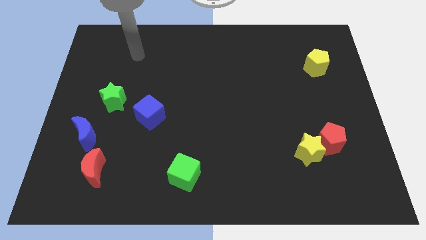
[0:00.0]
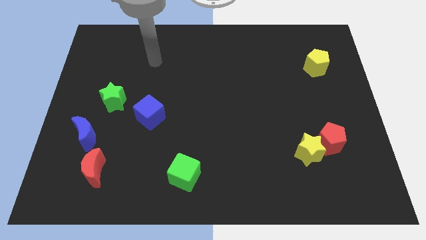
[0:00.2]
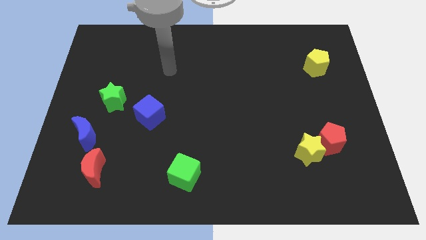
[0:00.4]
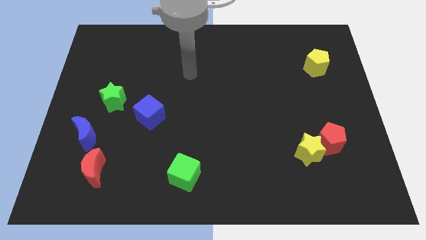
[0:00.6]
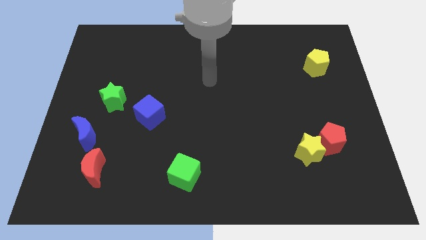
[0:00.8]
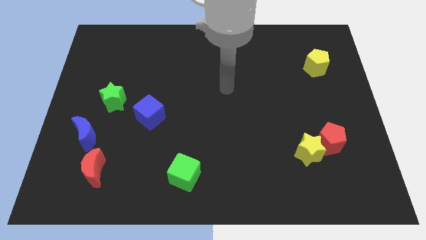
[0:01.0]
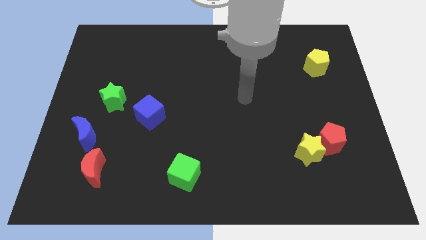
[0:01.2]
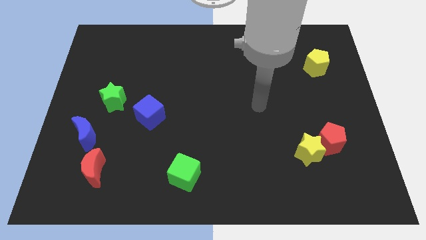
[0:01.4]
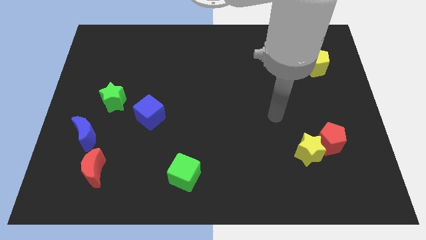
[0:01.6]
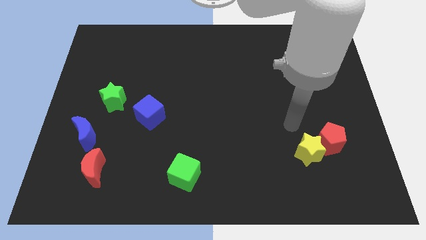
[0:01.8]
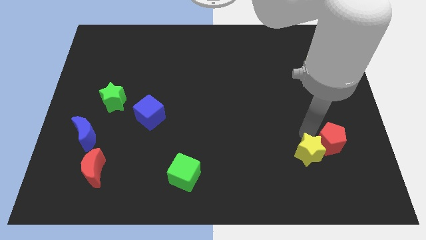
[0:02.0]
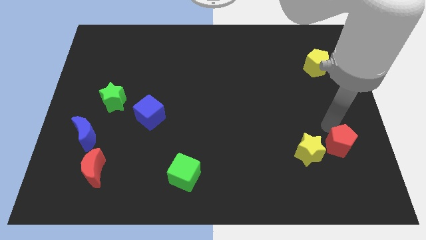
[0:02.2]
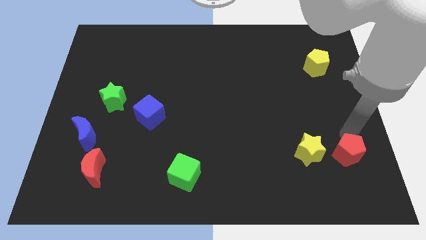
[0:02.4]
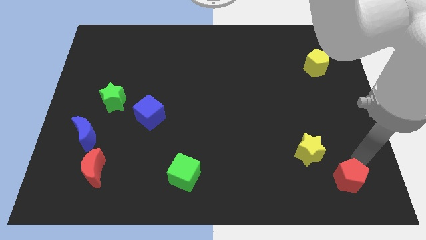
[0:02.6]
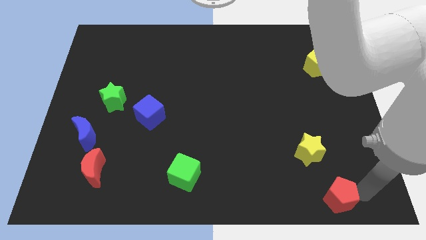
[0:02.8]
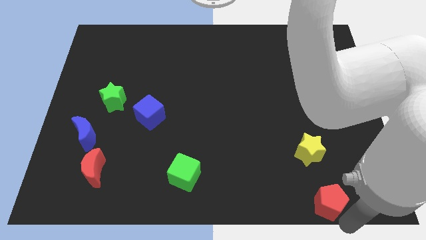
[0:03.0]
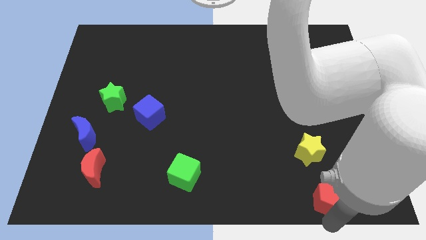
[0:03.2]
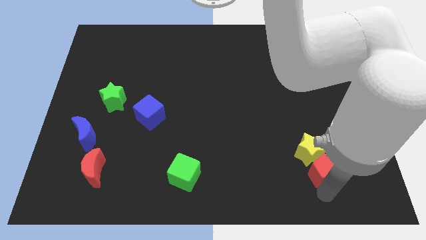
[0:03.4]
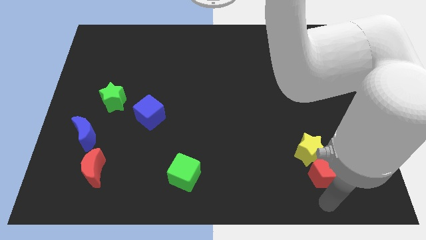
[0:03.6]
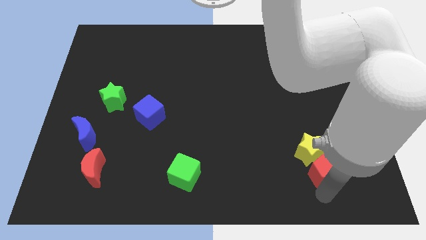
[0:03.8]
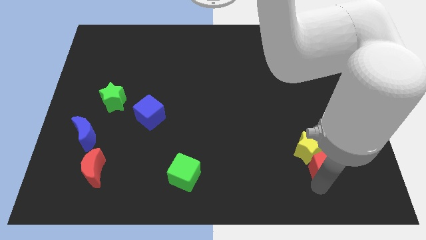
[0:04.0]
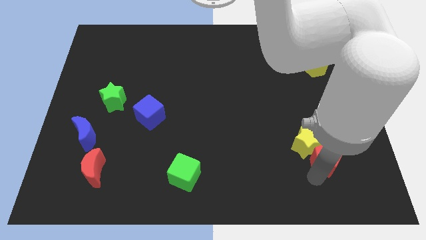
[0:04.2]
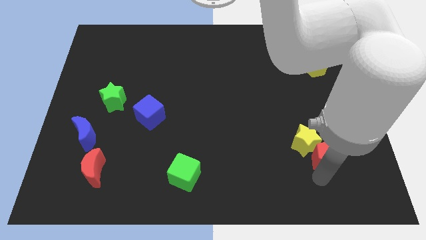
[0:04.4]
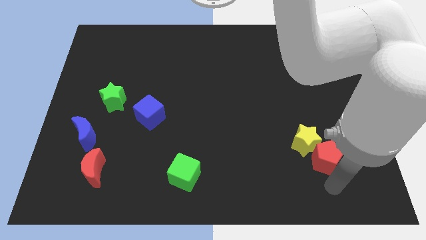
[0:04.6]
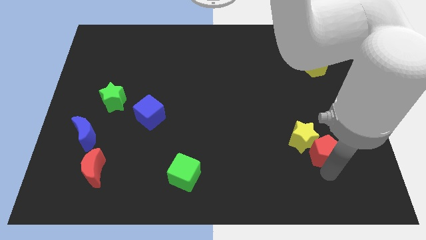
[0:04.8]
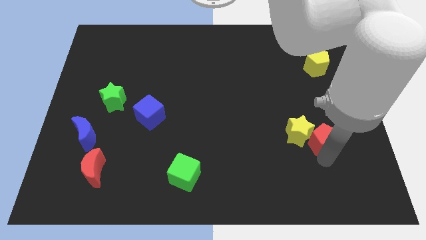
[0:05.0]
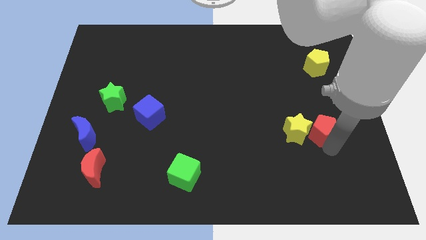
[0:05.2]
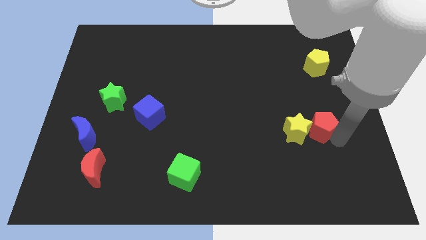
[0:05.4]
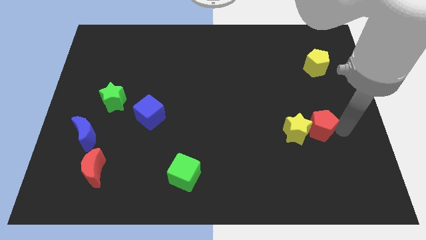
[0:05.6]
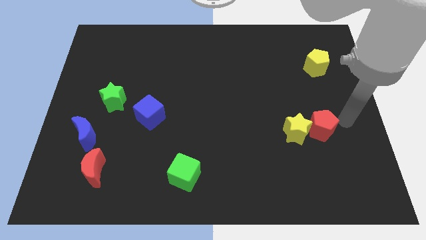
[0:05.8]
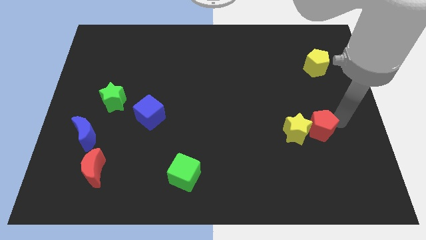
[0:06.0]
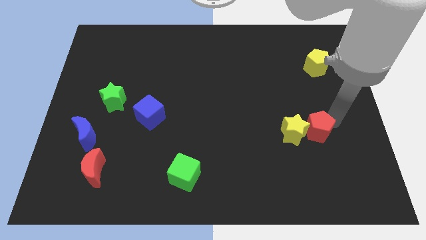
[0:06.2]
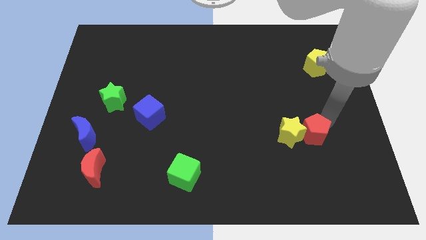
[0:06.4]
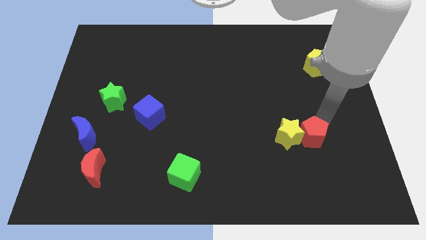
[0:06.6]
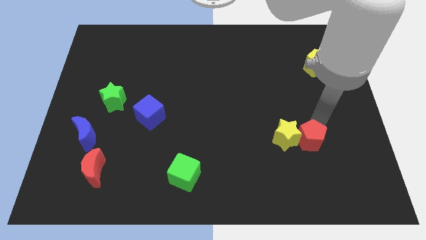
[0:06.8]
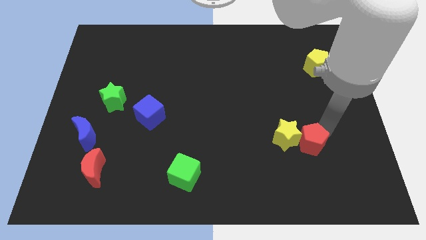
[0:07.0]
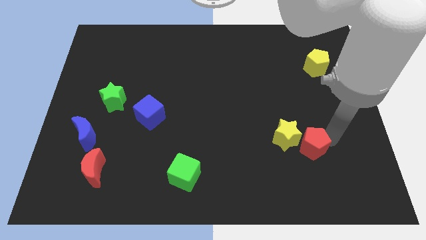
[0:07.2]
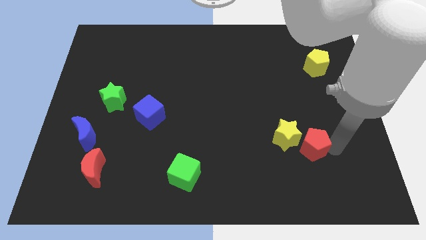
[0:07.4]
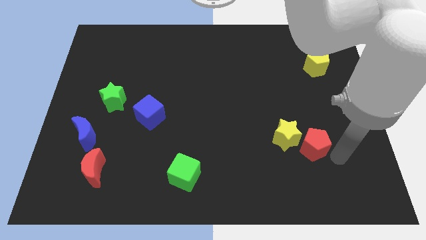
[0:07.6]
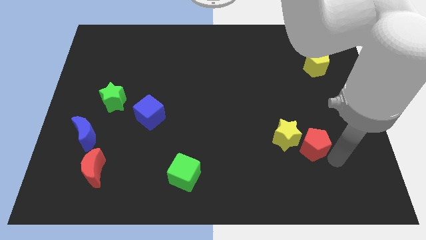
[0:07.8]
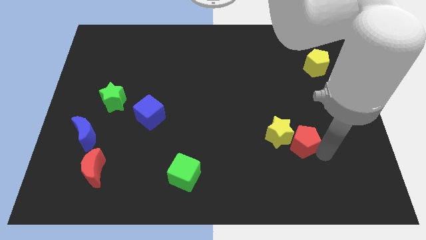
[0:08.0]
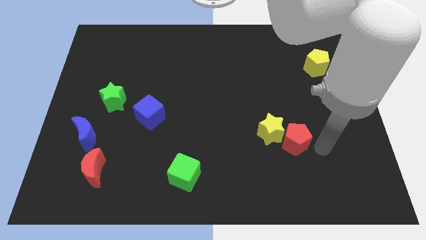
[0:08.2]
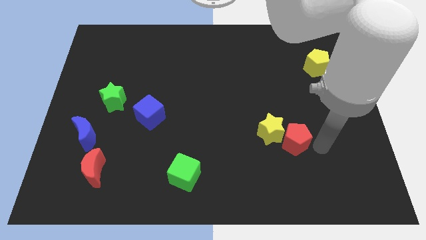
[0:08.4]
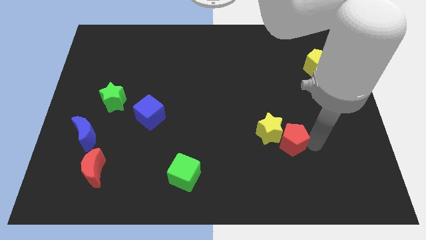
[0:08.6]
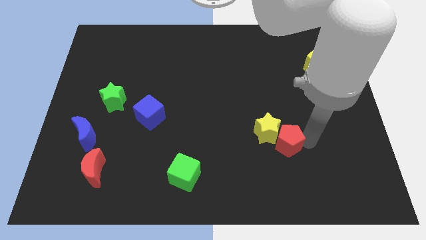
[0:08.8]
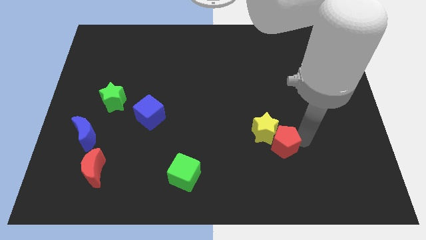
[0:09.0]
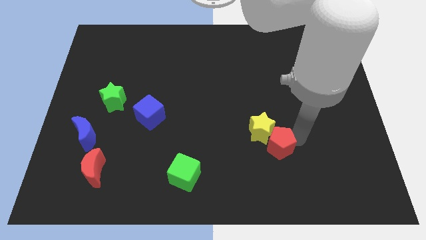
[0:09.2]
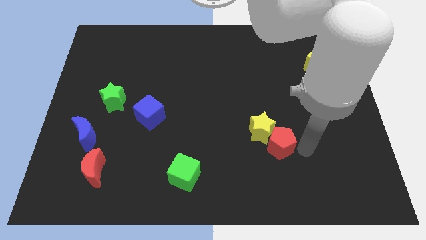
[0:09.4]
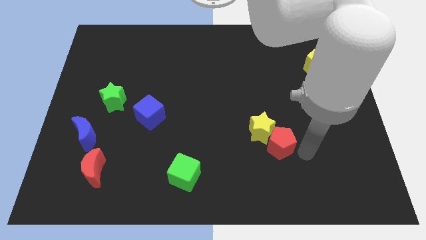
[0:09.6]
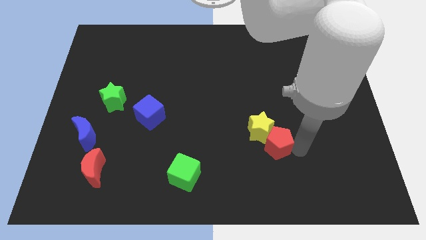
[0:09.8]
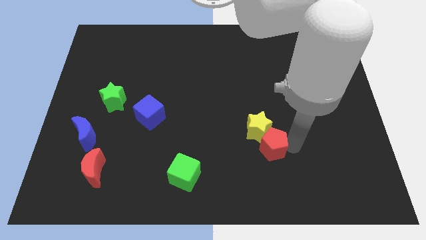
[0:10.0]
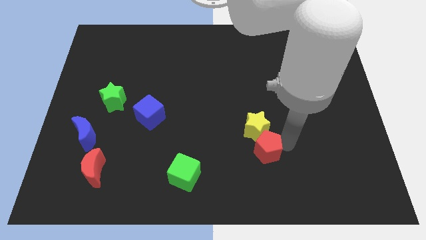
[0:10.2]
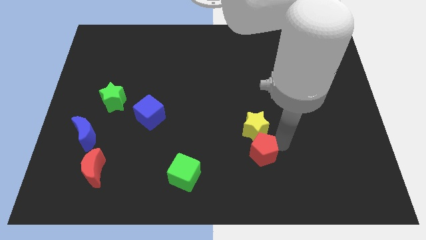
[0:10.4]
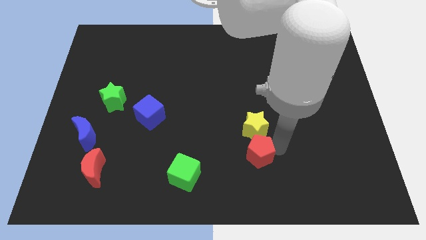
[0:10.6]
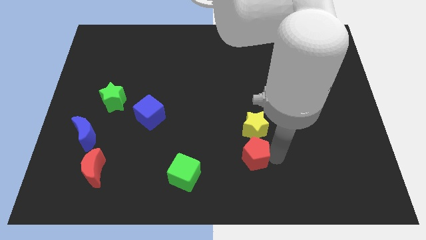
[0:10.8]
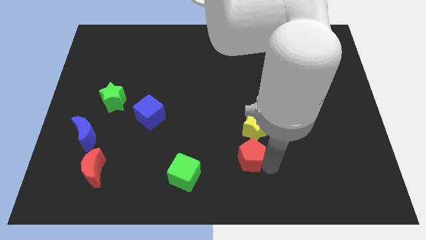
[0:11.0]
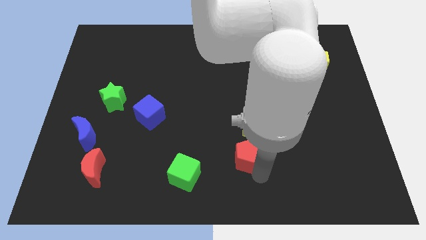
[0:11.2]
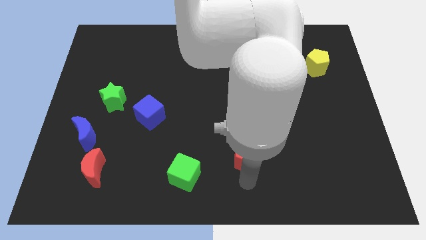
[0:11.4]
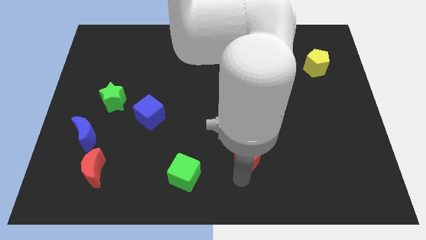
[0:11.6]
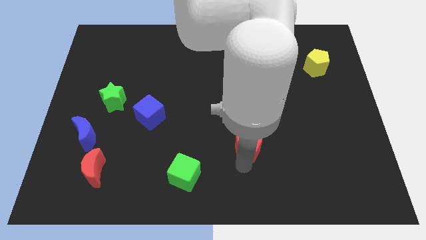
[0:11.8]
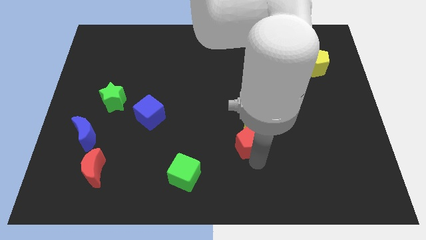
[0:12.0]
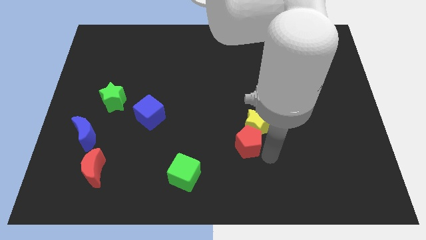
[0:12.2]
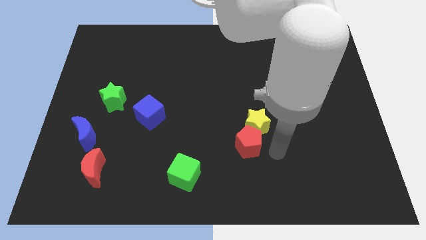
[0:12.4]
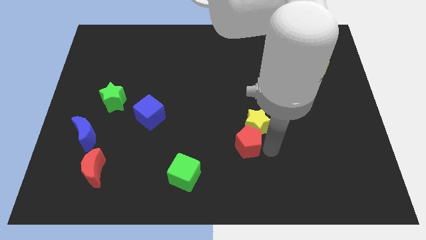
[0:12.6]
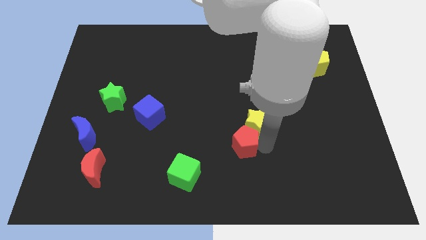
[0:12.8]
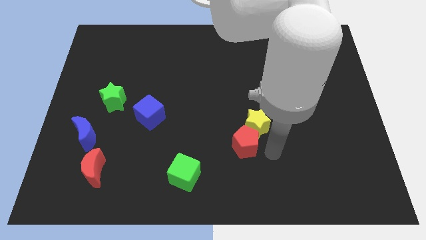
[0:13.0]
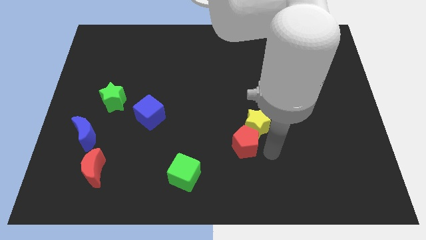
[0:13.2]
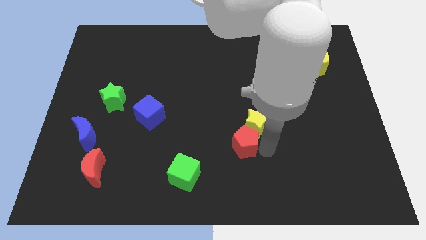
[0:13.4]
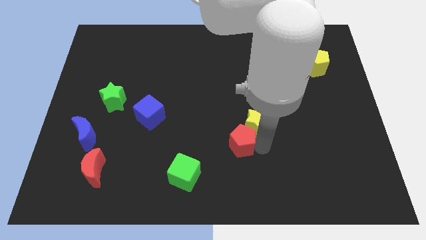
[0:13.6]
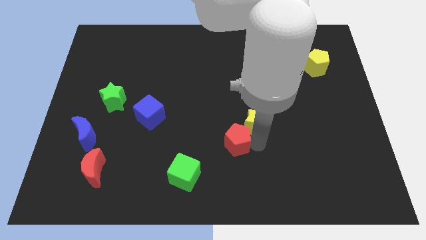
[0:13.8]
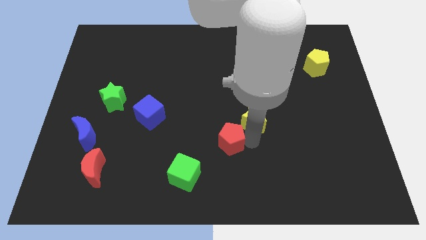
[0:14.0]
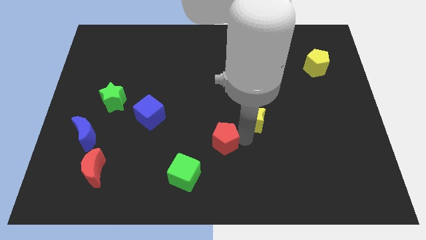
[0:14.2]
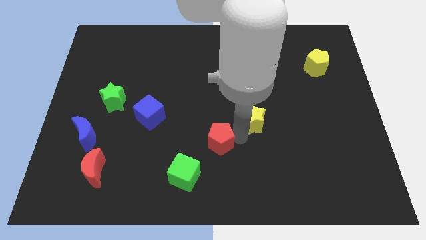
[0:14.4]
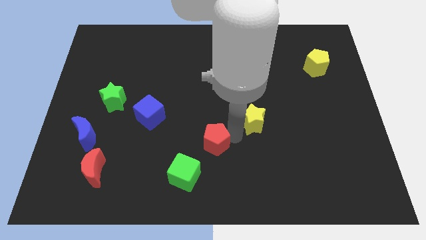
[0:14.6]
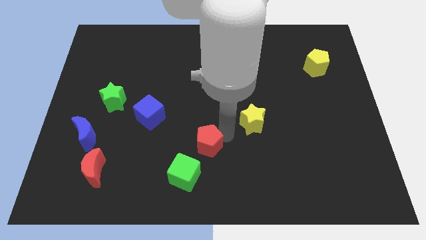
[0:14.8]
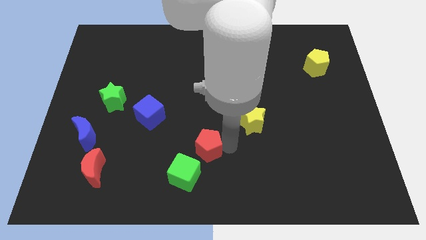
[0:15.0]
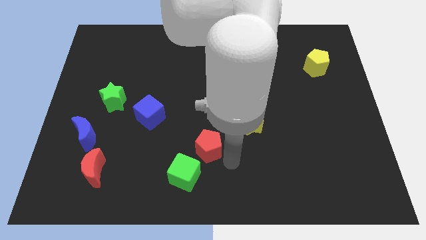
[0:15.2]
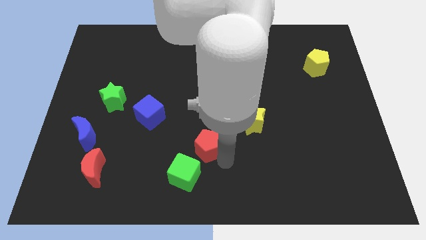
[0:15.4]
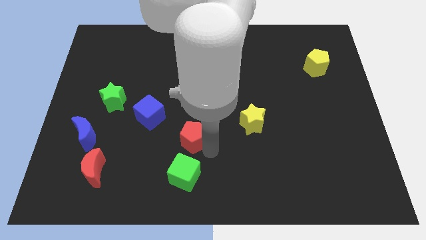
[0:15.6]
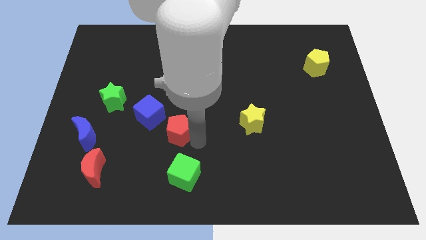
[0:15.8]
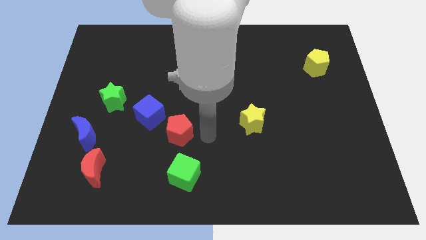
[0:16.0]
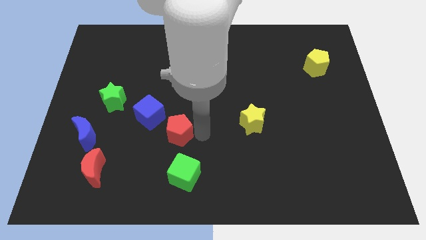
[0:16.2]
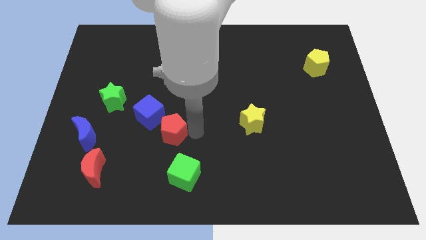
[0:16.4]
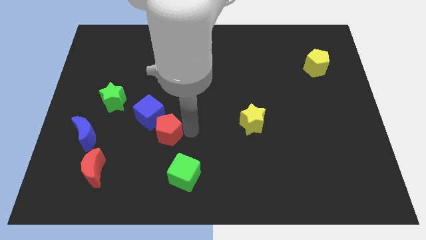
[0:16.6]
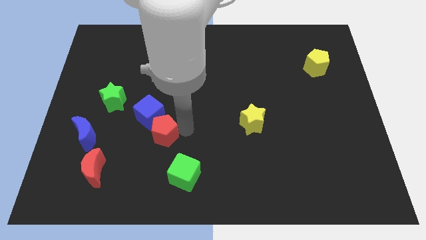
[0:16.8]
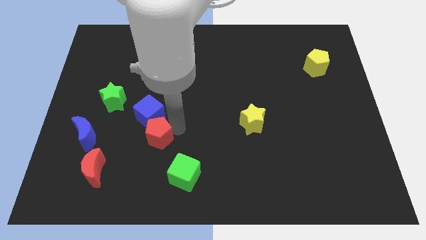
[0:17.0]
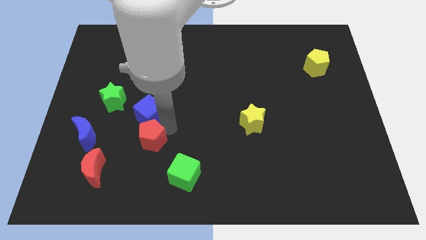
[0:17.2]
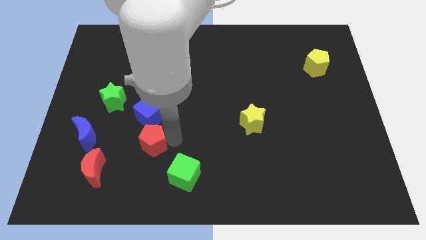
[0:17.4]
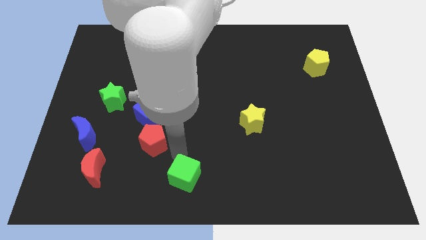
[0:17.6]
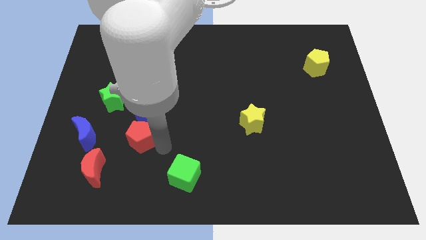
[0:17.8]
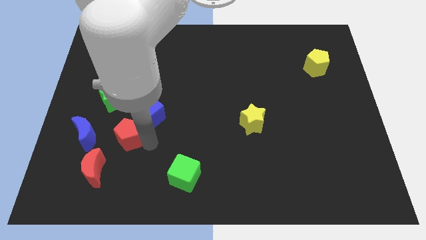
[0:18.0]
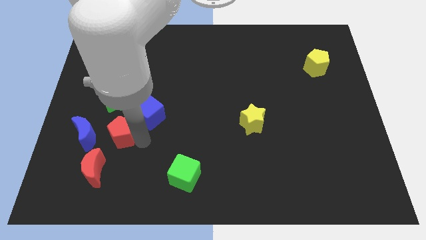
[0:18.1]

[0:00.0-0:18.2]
move the red pentagon to the top side of the red moon
